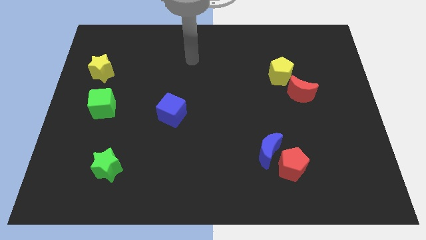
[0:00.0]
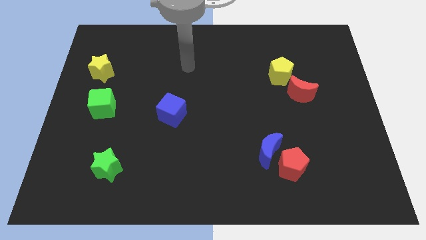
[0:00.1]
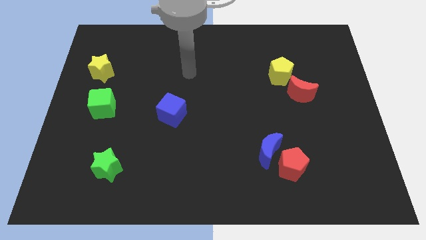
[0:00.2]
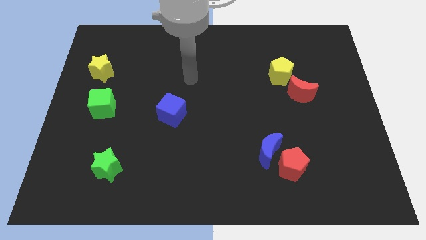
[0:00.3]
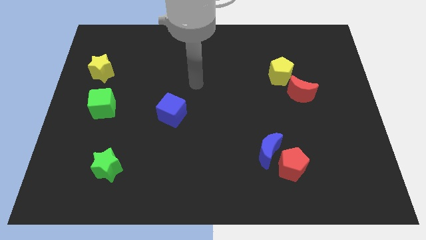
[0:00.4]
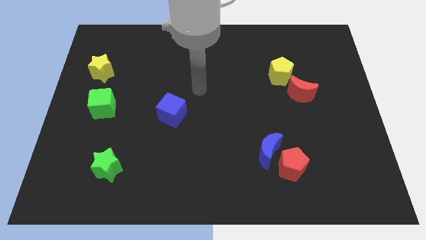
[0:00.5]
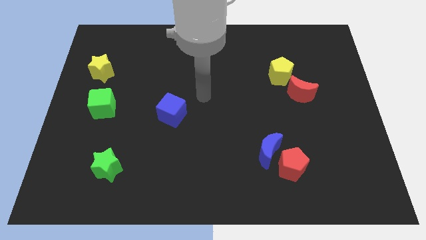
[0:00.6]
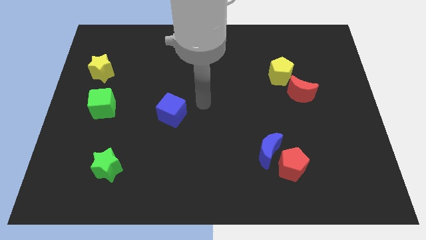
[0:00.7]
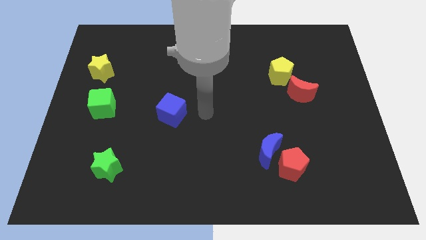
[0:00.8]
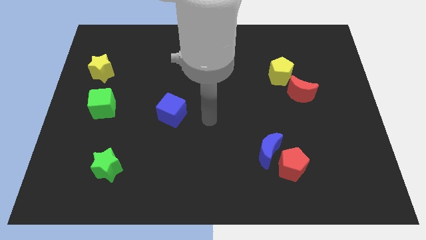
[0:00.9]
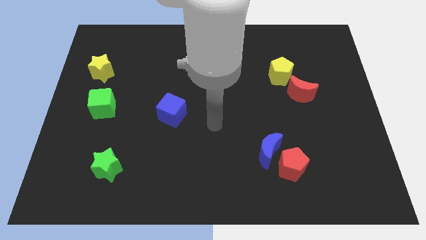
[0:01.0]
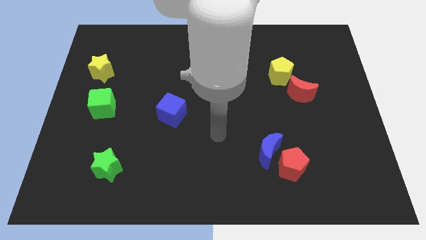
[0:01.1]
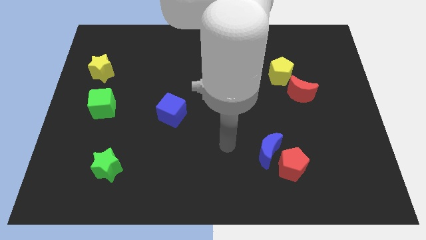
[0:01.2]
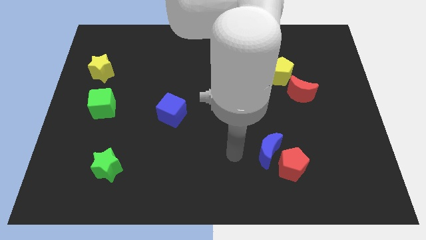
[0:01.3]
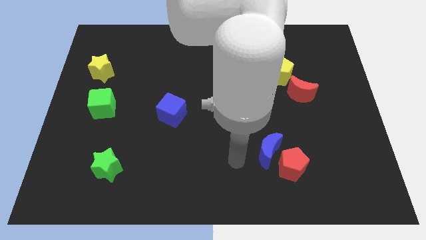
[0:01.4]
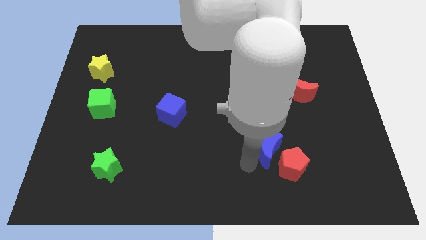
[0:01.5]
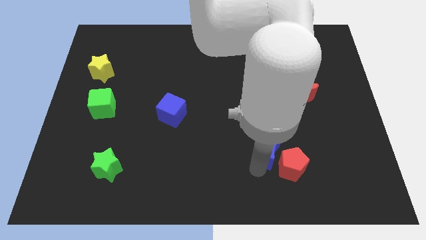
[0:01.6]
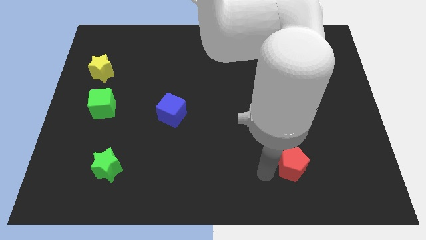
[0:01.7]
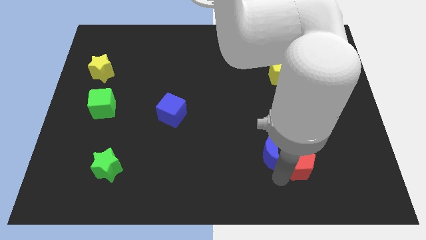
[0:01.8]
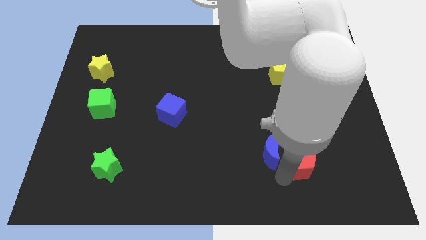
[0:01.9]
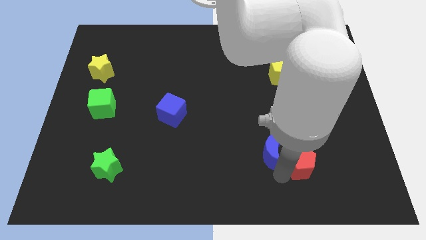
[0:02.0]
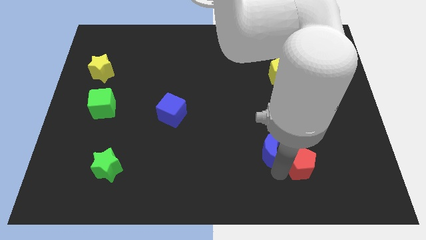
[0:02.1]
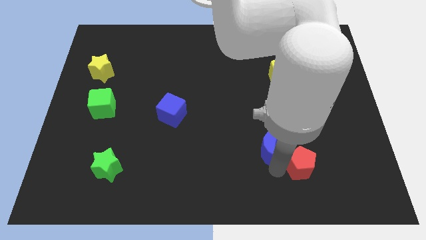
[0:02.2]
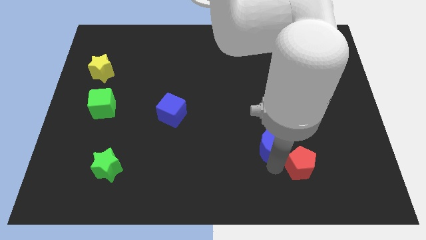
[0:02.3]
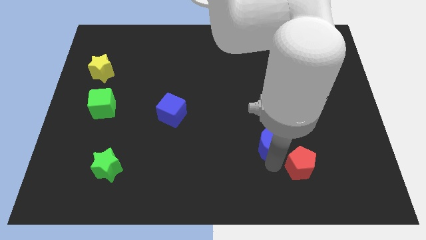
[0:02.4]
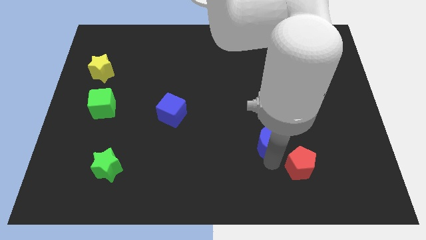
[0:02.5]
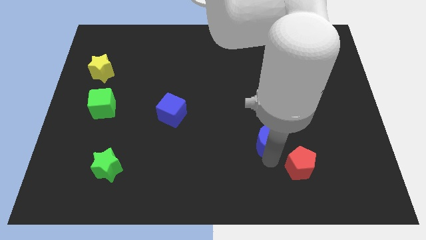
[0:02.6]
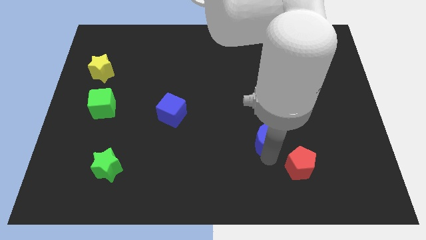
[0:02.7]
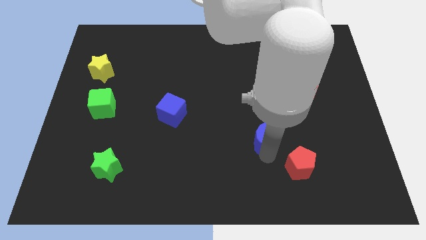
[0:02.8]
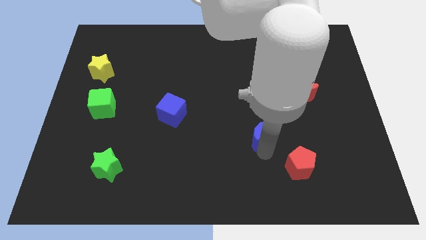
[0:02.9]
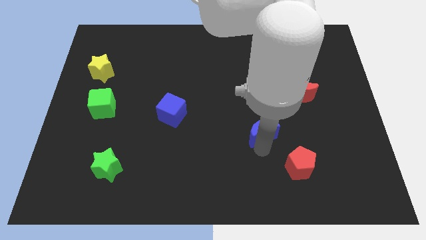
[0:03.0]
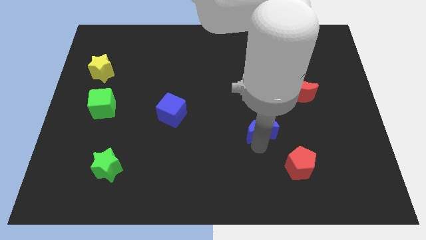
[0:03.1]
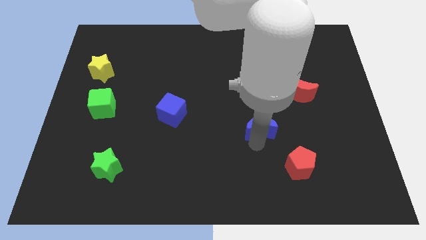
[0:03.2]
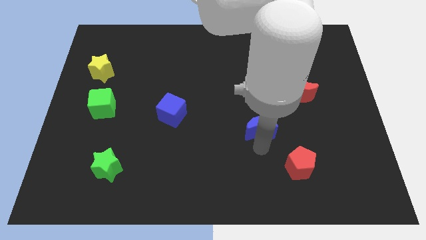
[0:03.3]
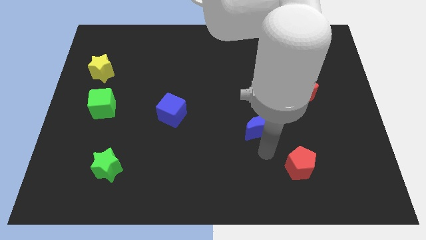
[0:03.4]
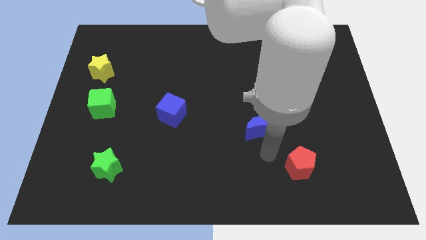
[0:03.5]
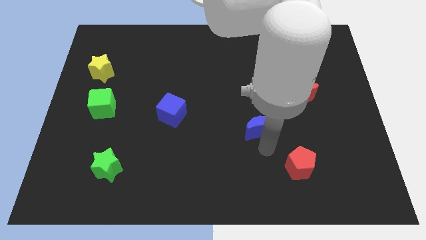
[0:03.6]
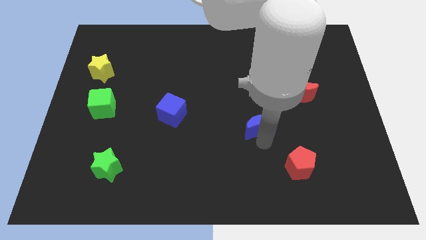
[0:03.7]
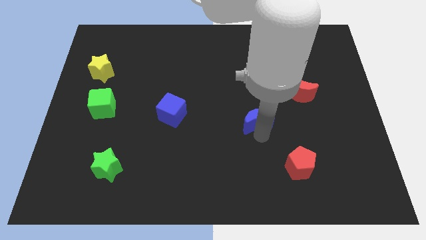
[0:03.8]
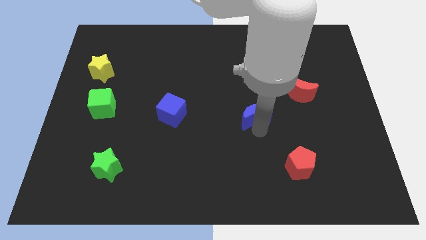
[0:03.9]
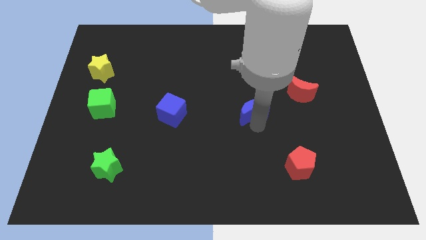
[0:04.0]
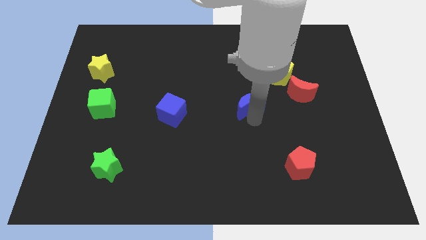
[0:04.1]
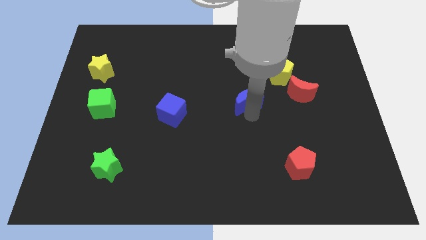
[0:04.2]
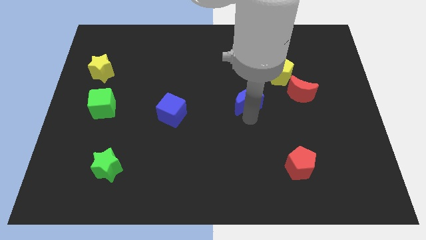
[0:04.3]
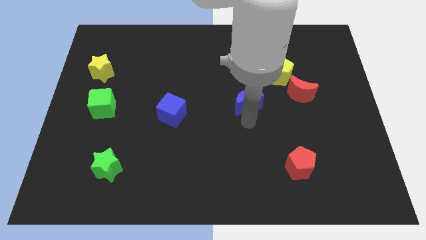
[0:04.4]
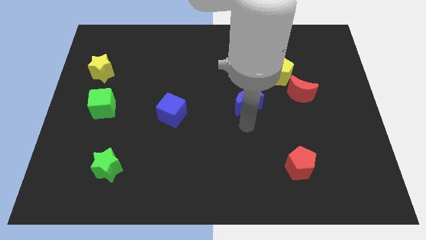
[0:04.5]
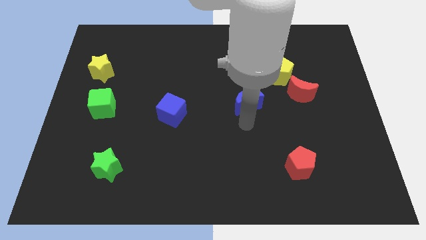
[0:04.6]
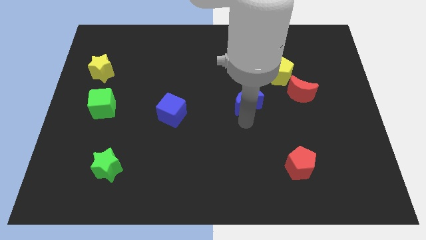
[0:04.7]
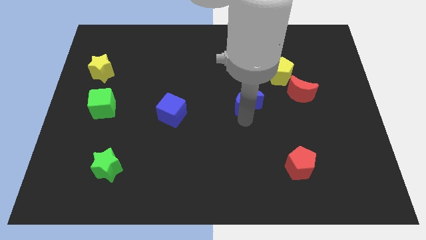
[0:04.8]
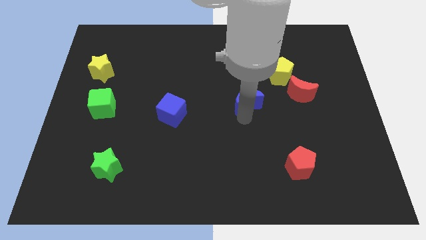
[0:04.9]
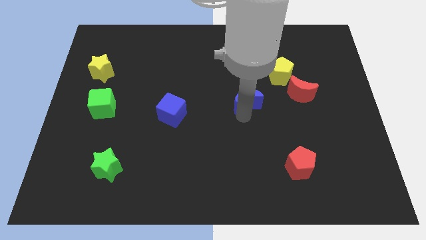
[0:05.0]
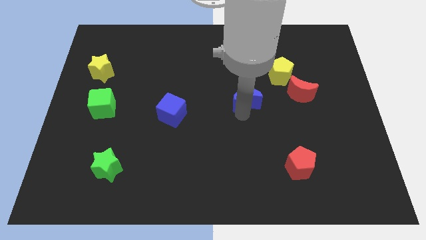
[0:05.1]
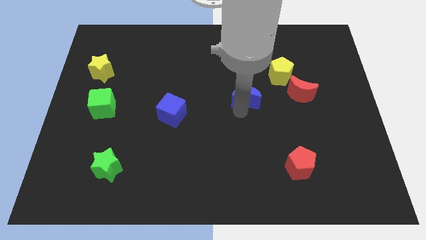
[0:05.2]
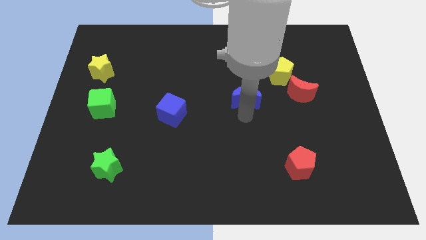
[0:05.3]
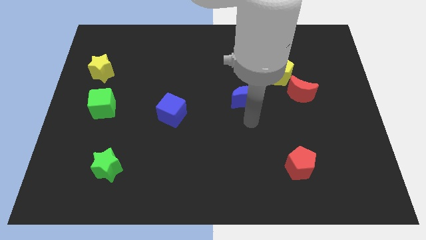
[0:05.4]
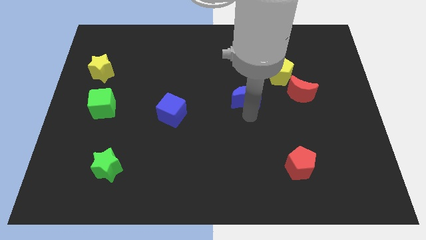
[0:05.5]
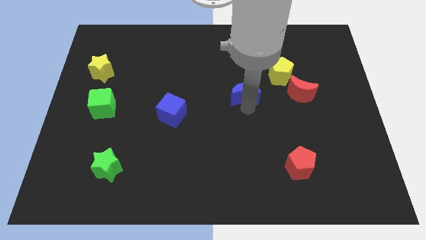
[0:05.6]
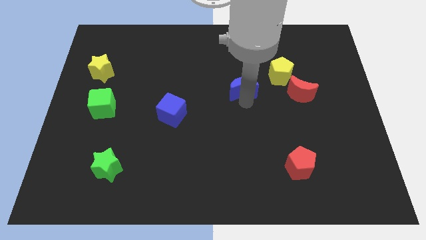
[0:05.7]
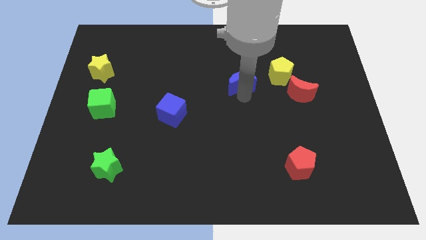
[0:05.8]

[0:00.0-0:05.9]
push the blue moon left of the yellow pentagon

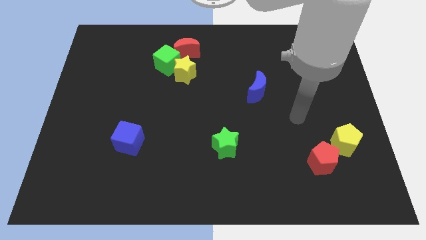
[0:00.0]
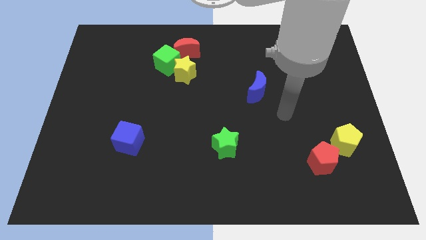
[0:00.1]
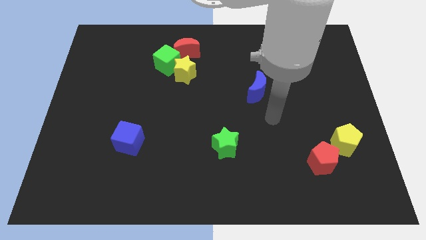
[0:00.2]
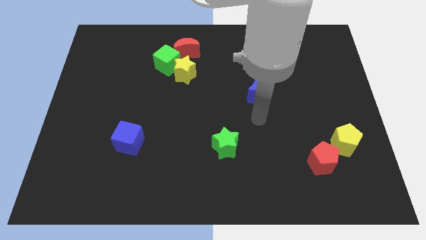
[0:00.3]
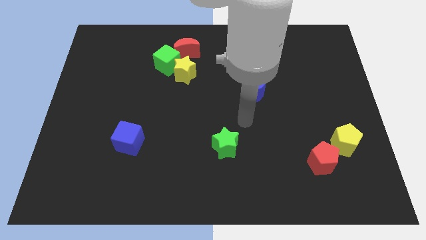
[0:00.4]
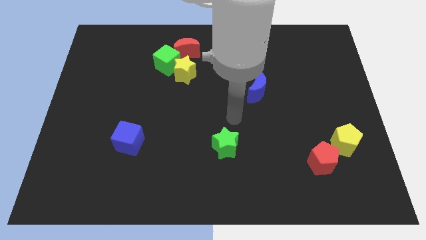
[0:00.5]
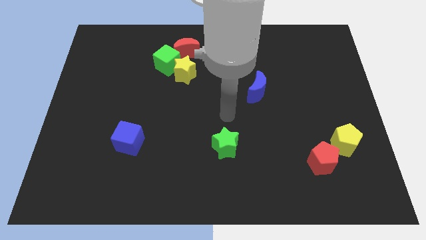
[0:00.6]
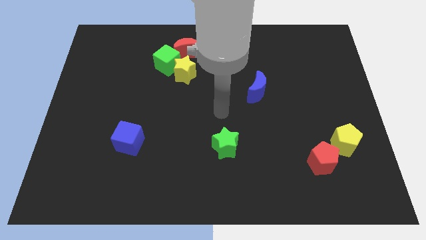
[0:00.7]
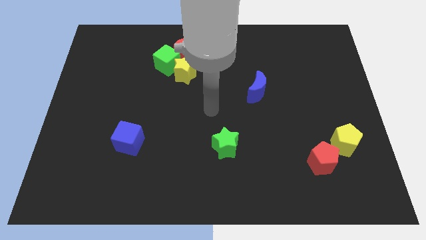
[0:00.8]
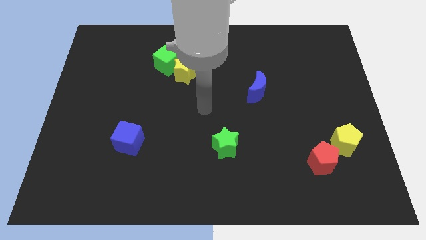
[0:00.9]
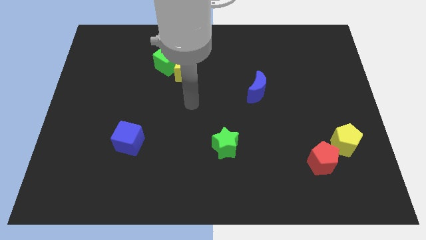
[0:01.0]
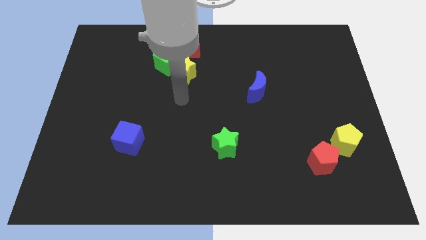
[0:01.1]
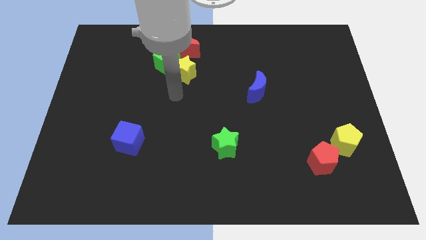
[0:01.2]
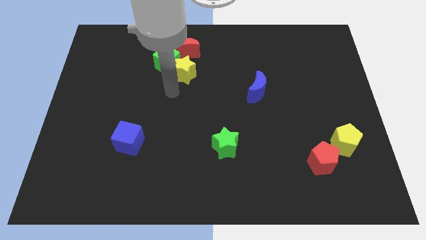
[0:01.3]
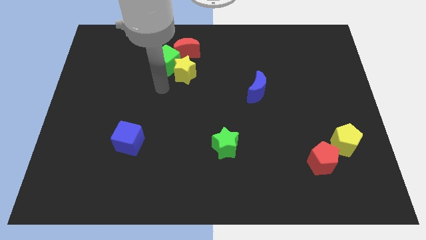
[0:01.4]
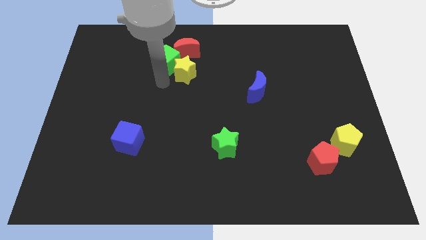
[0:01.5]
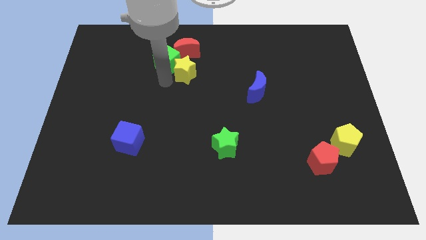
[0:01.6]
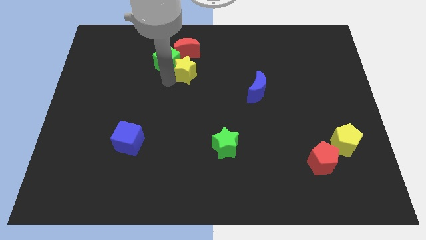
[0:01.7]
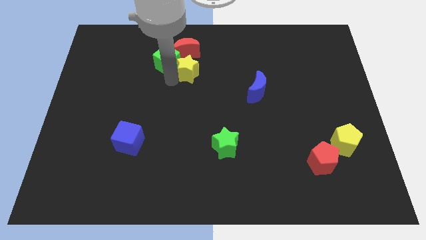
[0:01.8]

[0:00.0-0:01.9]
push the yellow star to the bottom right side of the red moon
